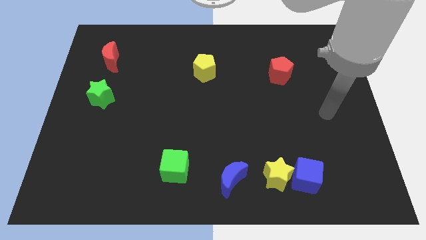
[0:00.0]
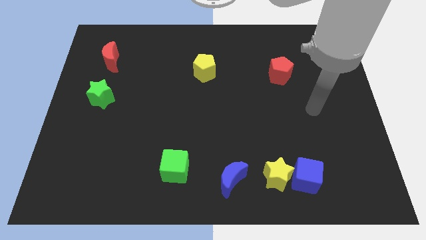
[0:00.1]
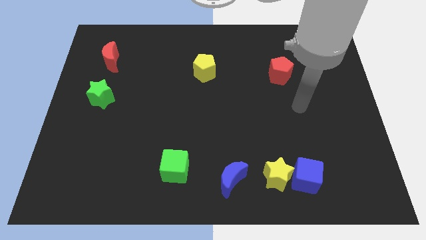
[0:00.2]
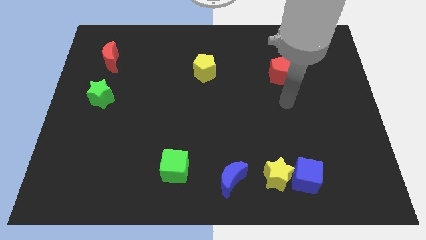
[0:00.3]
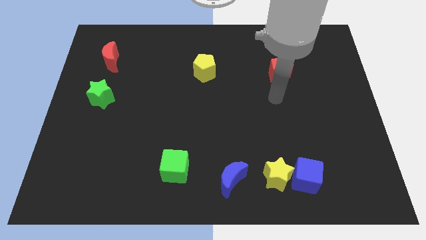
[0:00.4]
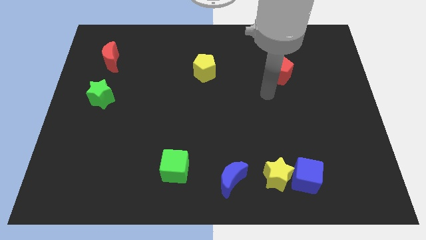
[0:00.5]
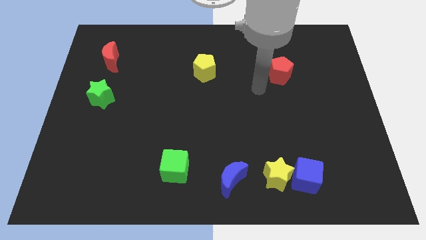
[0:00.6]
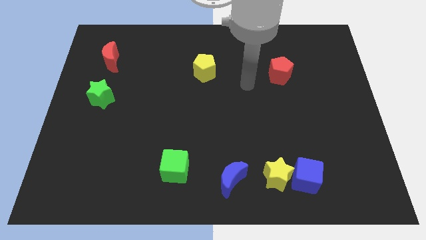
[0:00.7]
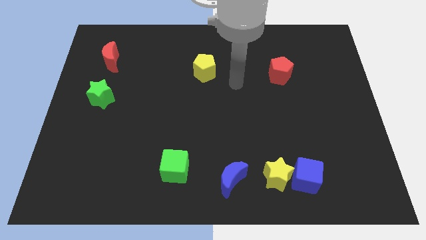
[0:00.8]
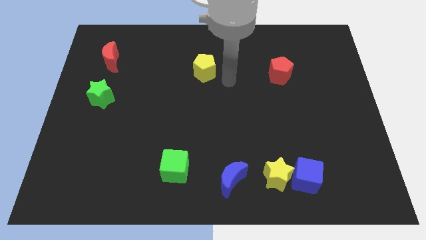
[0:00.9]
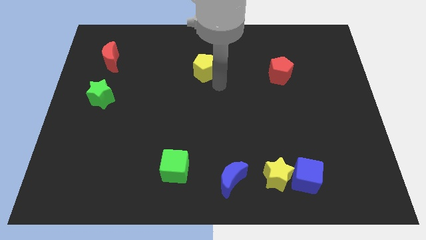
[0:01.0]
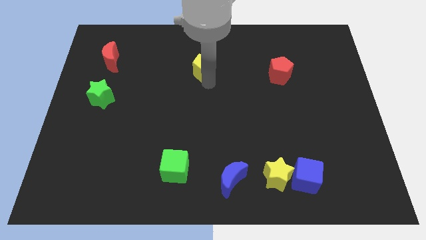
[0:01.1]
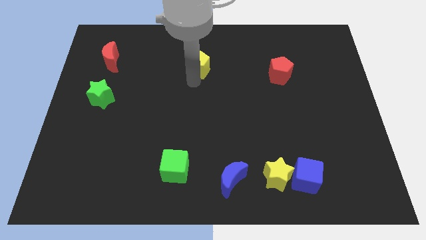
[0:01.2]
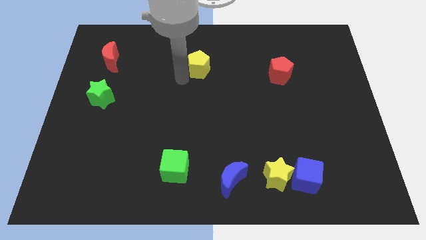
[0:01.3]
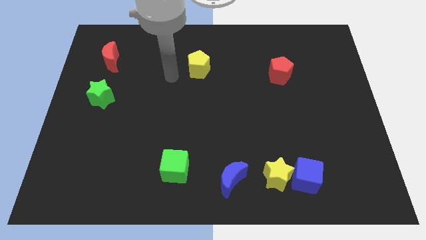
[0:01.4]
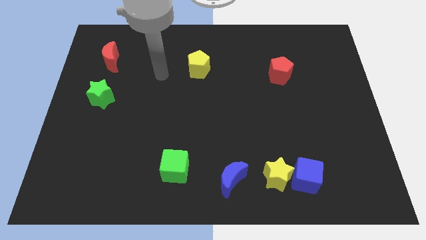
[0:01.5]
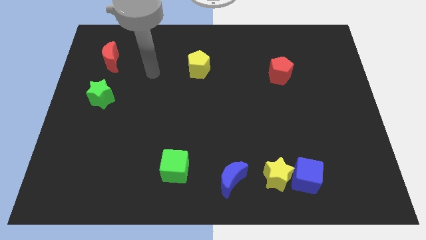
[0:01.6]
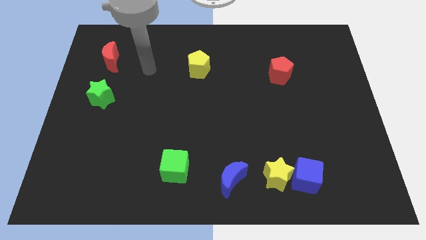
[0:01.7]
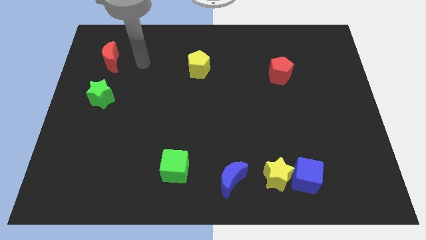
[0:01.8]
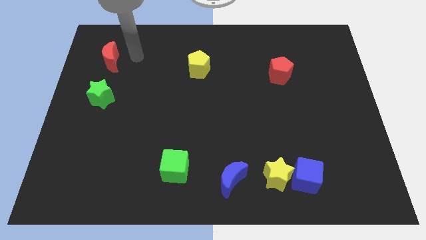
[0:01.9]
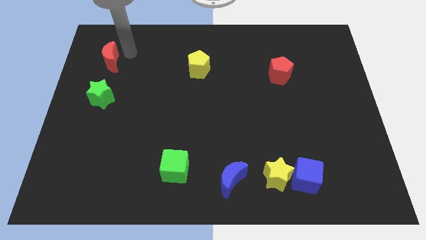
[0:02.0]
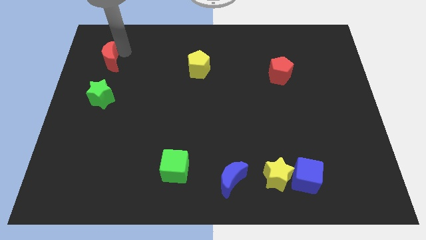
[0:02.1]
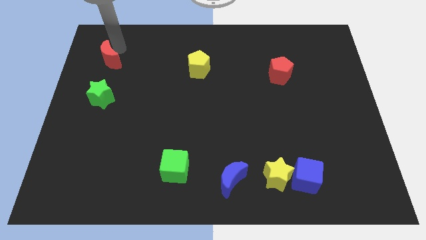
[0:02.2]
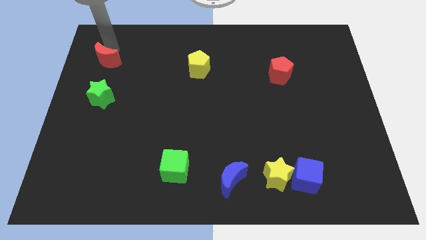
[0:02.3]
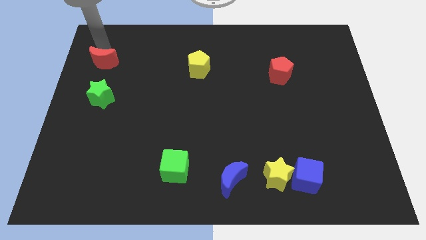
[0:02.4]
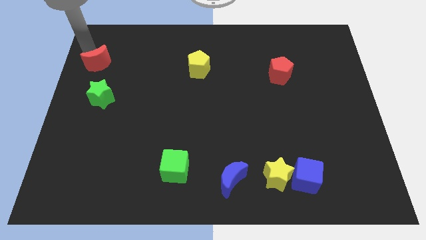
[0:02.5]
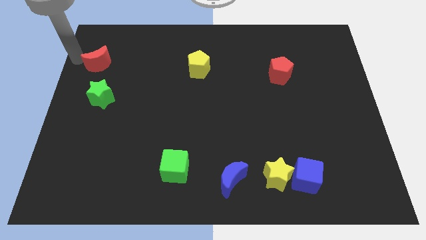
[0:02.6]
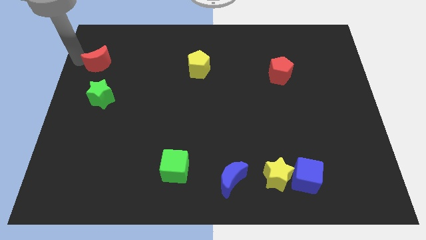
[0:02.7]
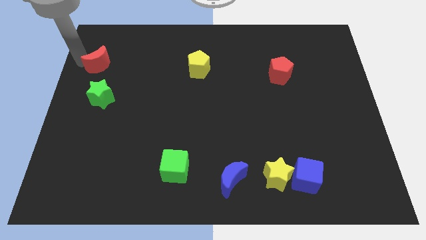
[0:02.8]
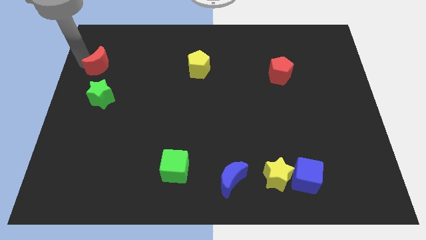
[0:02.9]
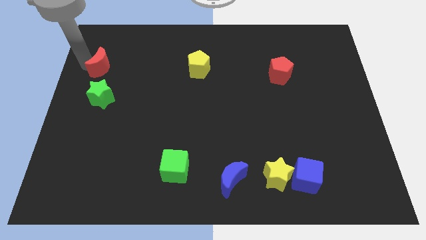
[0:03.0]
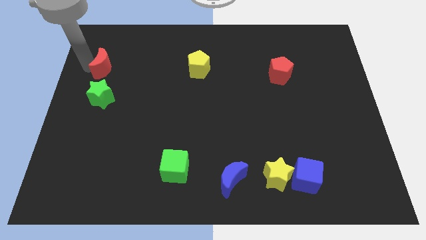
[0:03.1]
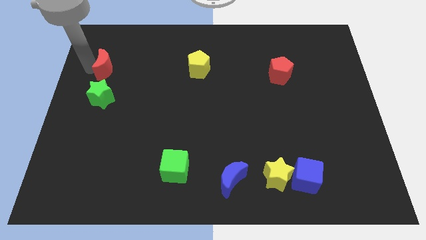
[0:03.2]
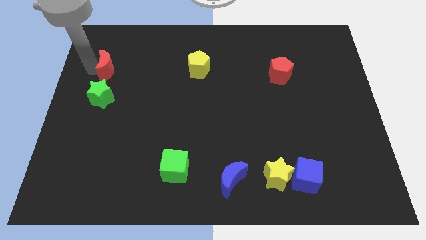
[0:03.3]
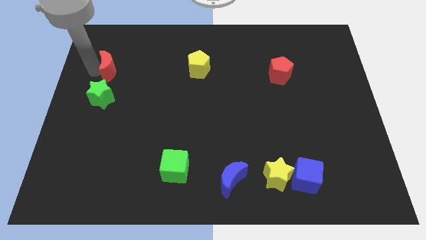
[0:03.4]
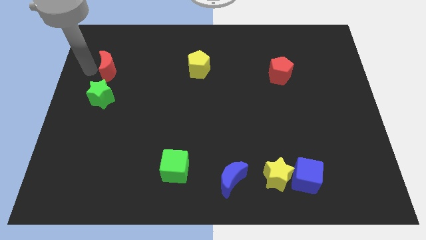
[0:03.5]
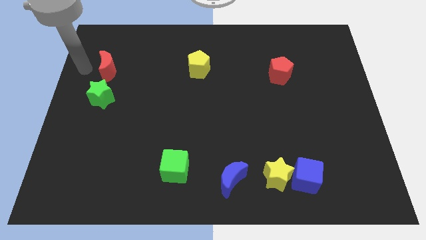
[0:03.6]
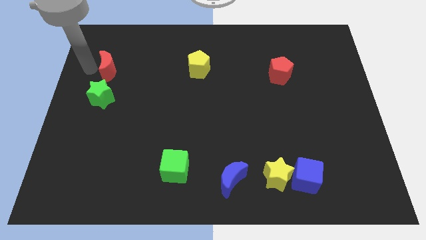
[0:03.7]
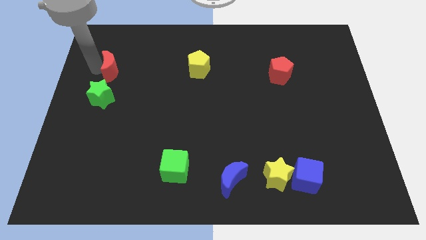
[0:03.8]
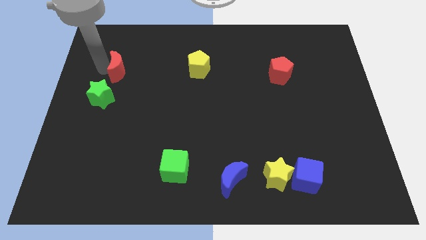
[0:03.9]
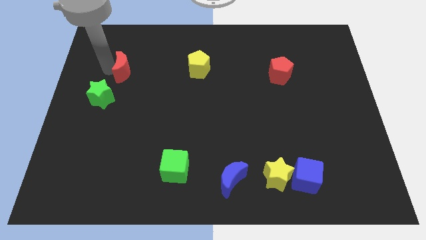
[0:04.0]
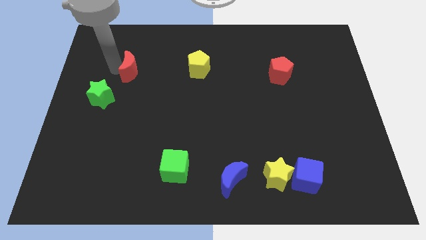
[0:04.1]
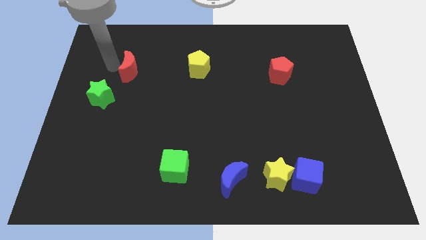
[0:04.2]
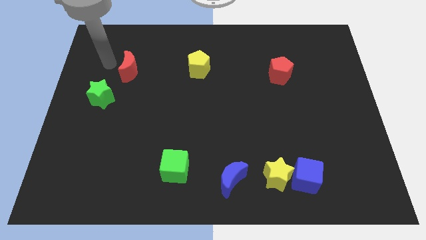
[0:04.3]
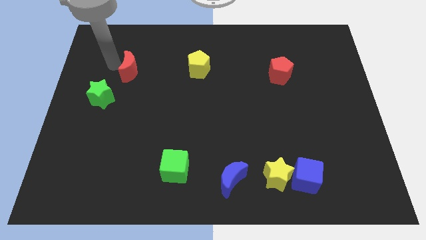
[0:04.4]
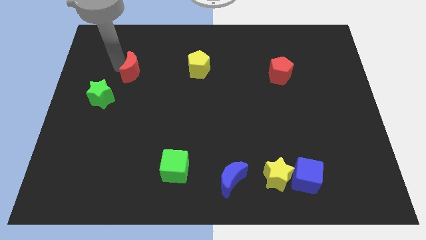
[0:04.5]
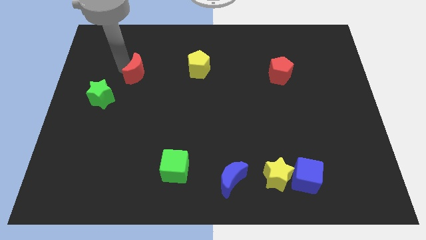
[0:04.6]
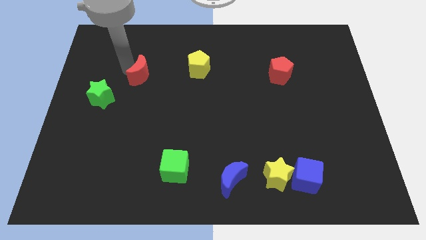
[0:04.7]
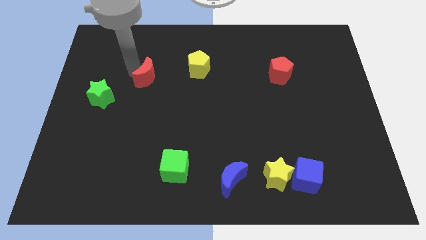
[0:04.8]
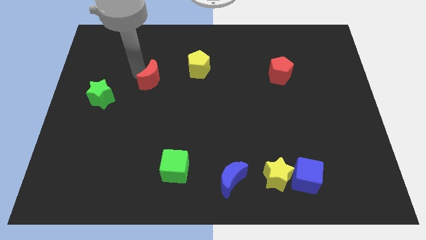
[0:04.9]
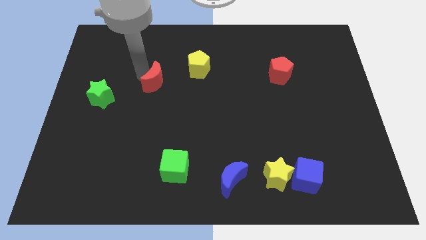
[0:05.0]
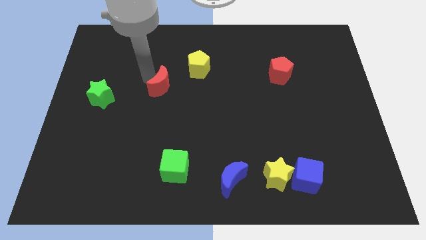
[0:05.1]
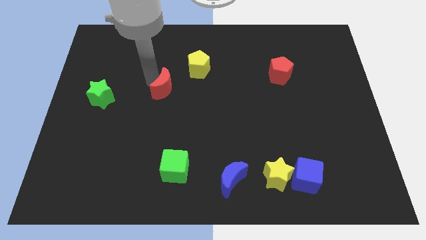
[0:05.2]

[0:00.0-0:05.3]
move the red moon to the middle
